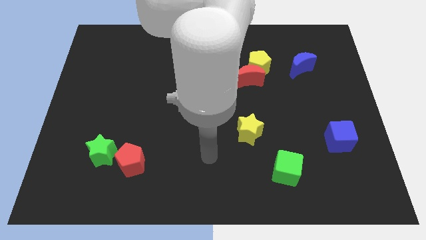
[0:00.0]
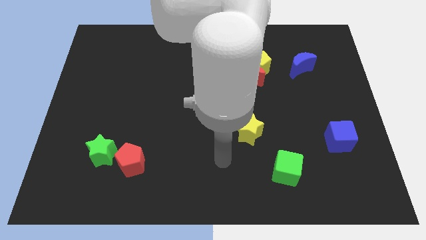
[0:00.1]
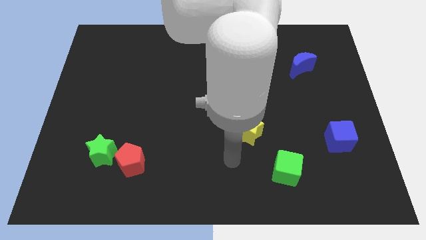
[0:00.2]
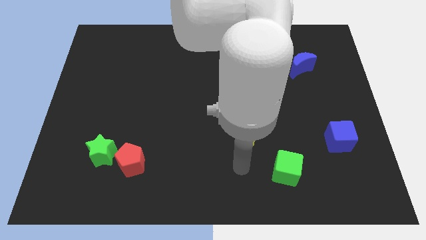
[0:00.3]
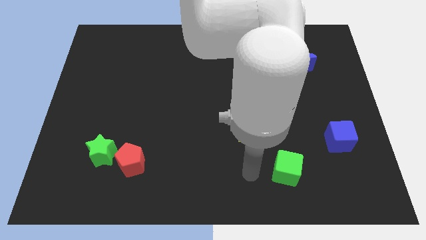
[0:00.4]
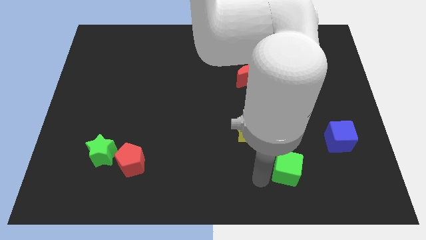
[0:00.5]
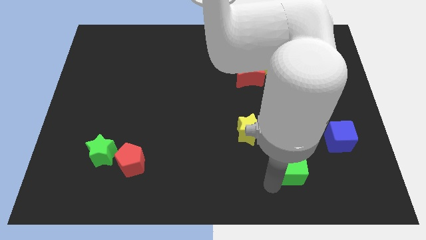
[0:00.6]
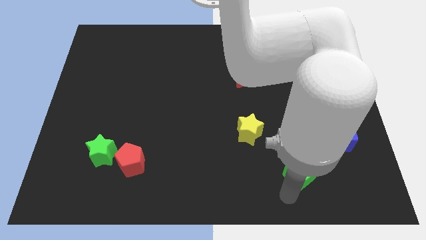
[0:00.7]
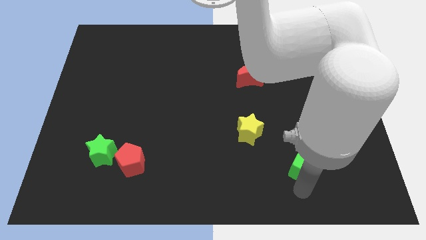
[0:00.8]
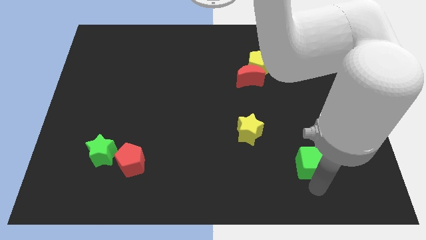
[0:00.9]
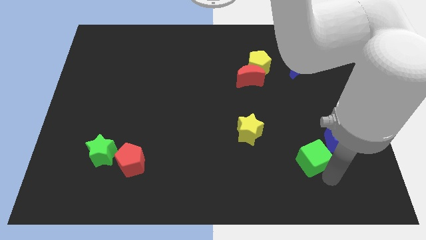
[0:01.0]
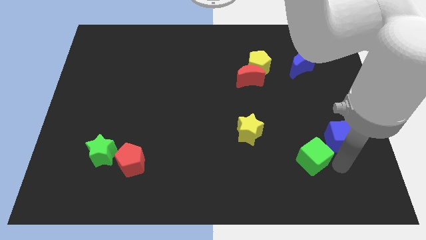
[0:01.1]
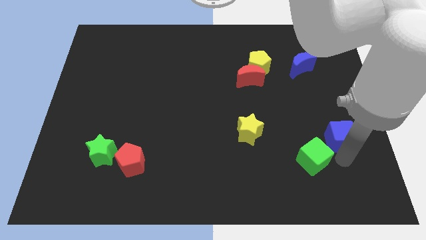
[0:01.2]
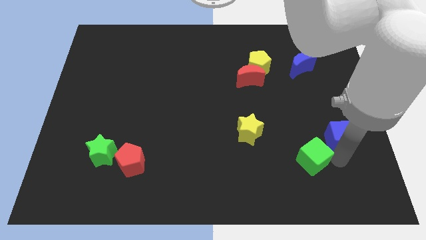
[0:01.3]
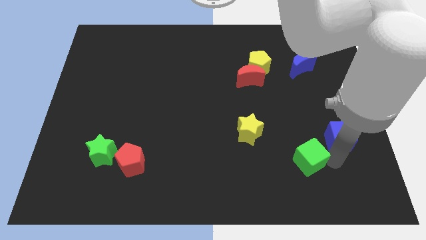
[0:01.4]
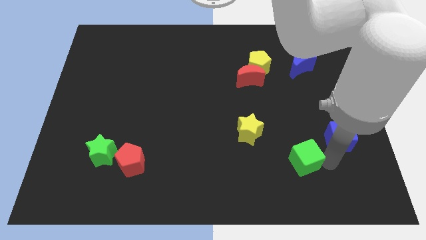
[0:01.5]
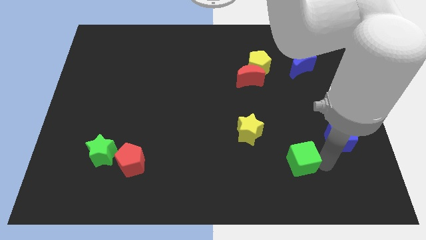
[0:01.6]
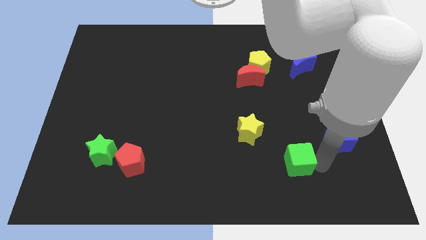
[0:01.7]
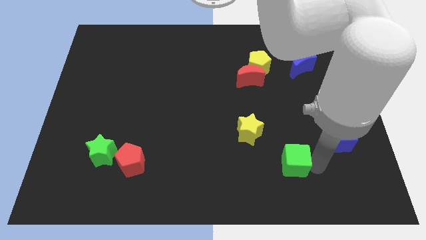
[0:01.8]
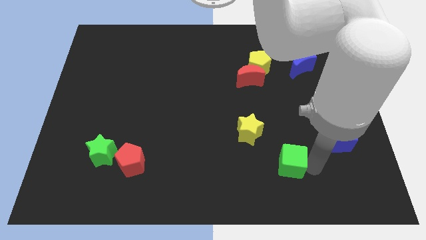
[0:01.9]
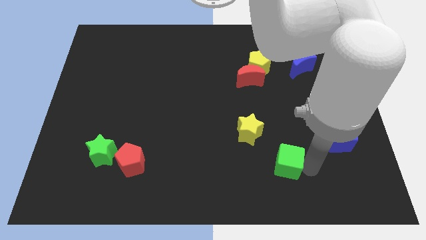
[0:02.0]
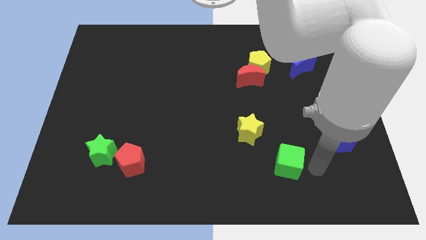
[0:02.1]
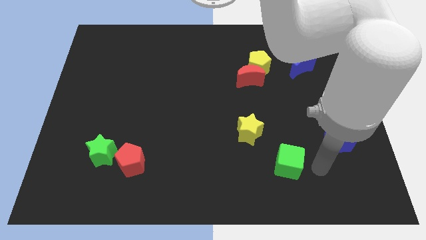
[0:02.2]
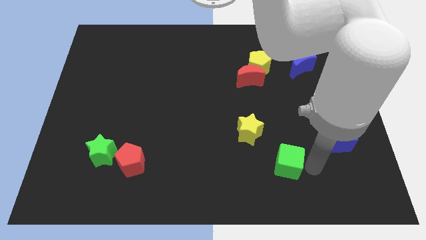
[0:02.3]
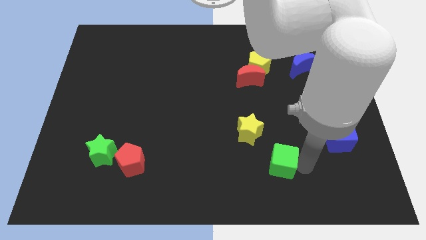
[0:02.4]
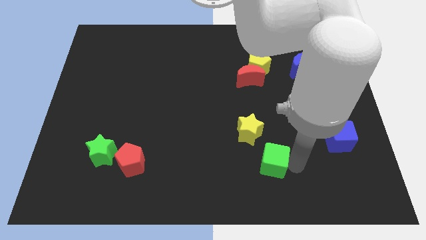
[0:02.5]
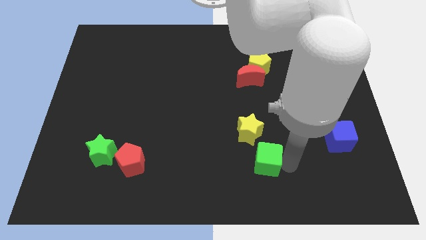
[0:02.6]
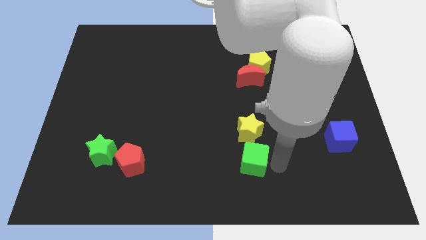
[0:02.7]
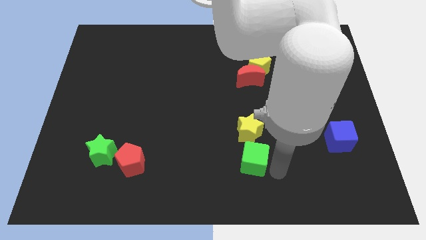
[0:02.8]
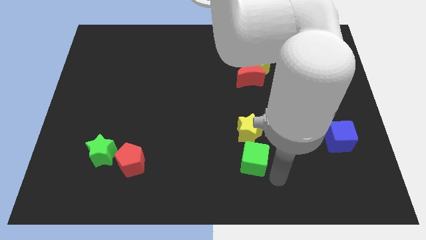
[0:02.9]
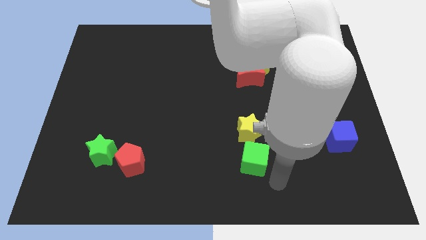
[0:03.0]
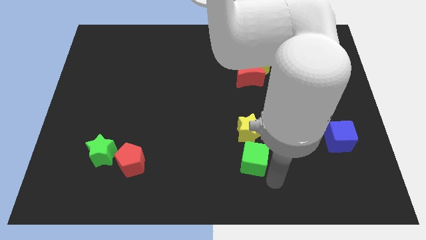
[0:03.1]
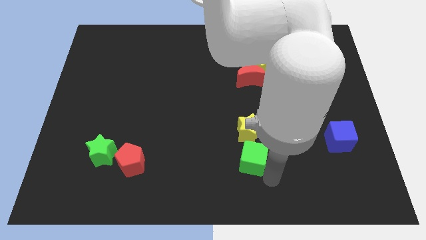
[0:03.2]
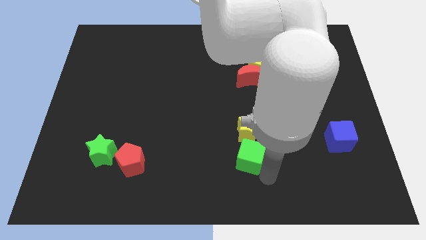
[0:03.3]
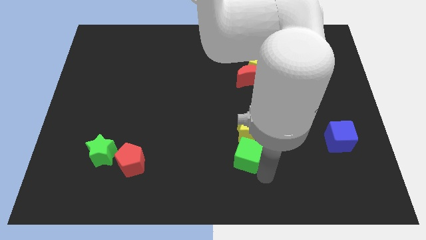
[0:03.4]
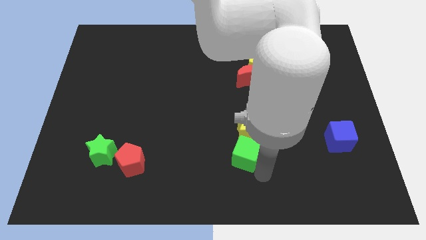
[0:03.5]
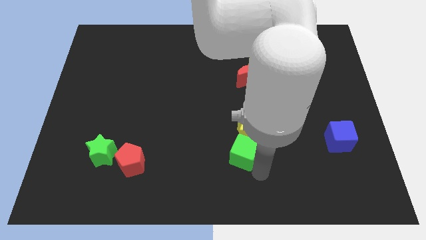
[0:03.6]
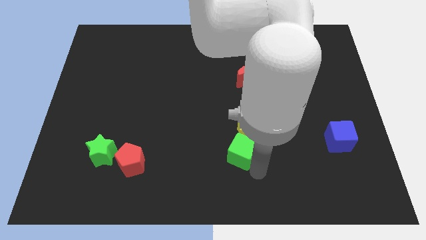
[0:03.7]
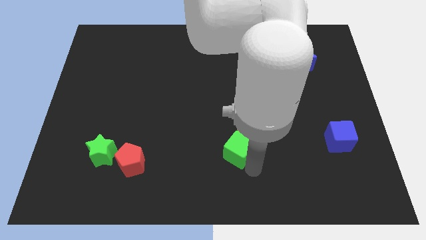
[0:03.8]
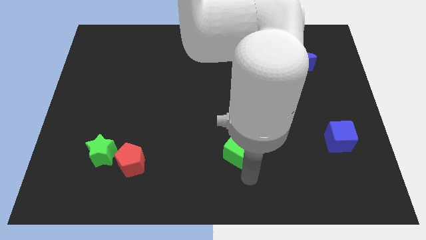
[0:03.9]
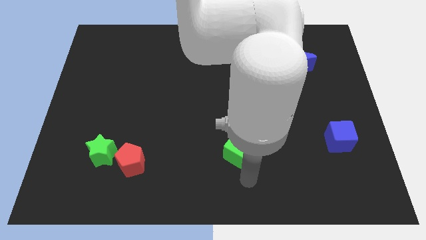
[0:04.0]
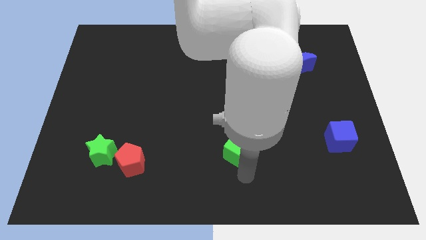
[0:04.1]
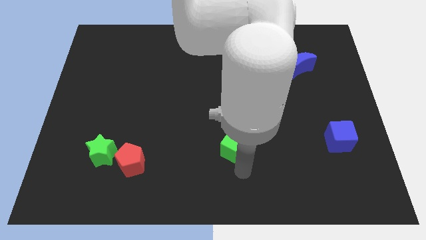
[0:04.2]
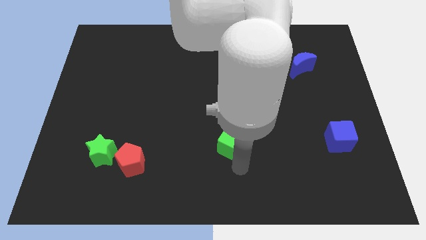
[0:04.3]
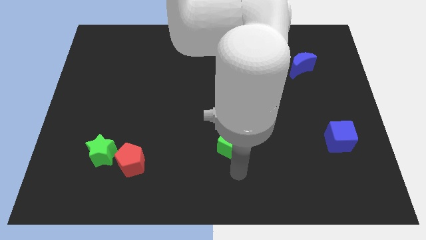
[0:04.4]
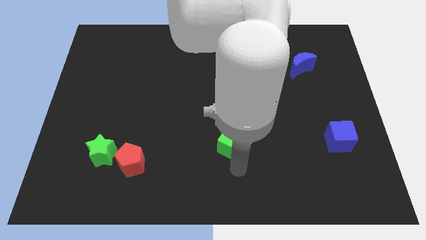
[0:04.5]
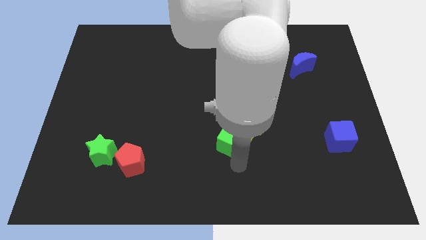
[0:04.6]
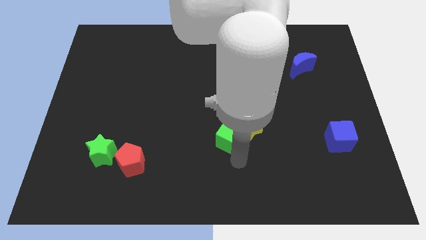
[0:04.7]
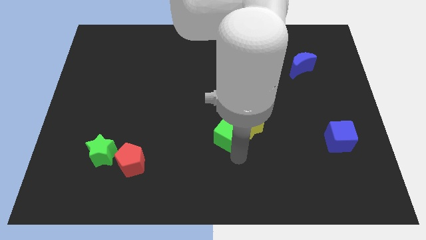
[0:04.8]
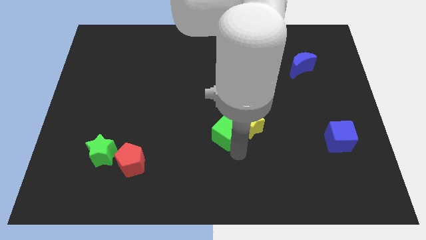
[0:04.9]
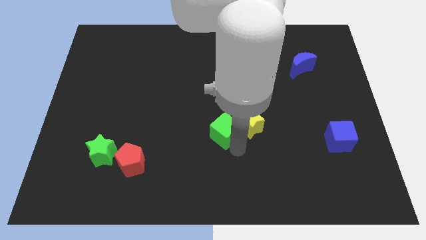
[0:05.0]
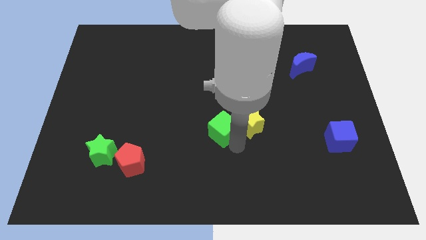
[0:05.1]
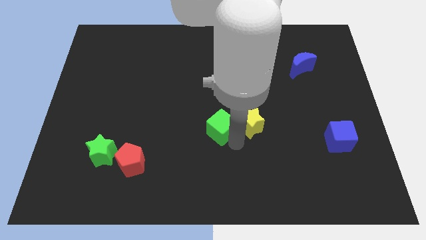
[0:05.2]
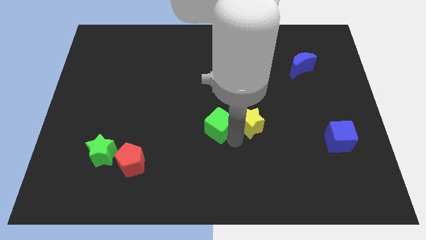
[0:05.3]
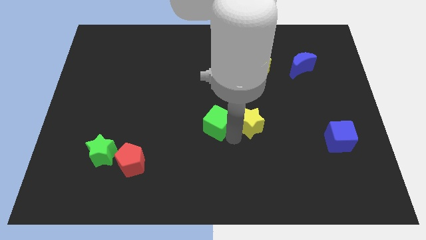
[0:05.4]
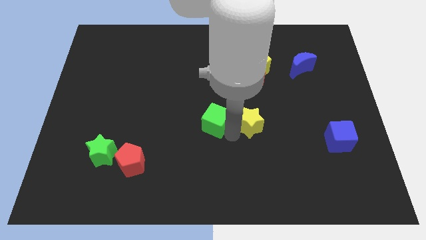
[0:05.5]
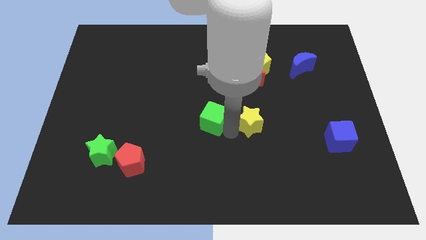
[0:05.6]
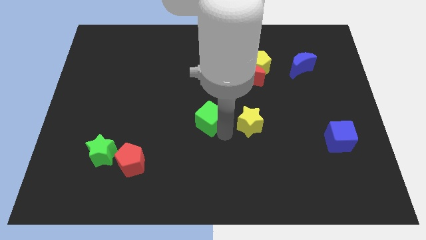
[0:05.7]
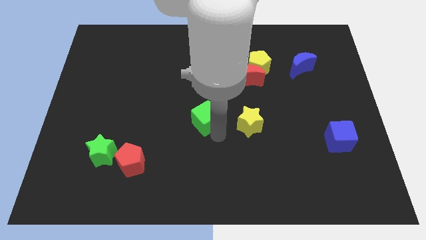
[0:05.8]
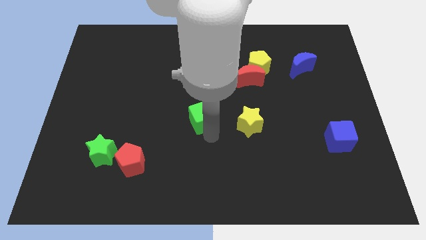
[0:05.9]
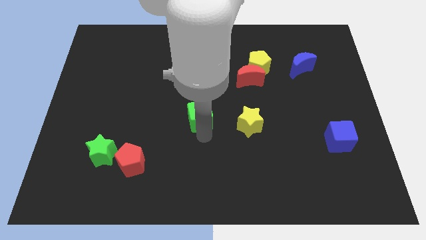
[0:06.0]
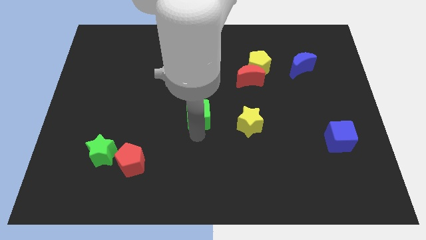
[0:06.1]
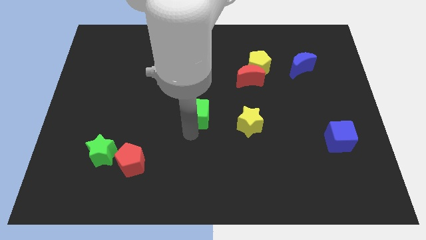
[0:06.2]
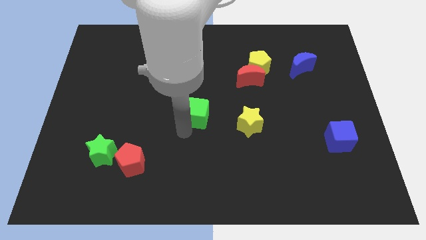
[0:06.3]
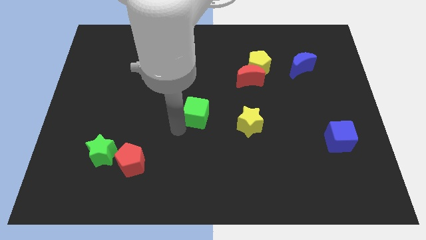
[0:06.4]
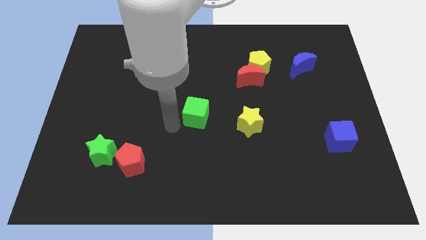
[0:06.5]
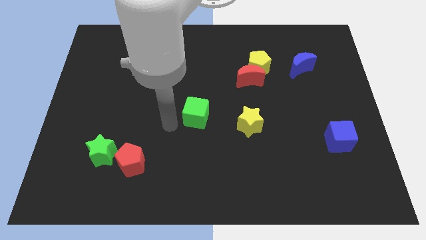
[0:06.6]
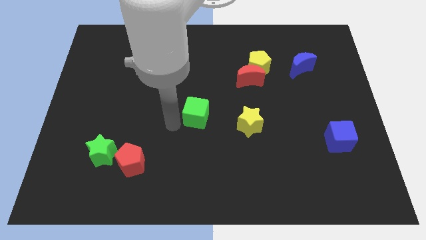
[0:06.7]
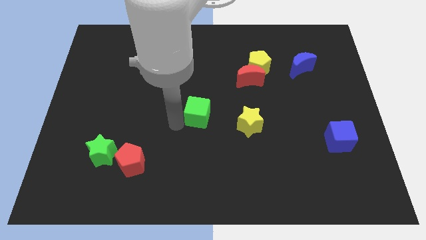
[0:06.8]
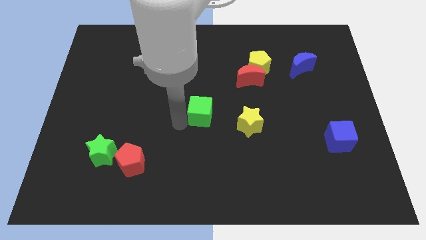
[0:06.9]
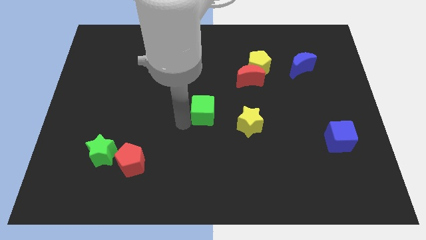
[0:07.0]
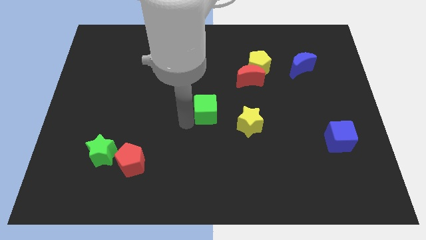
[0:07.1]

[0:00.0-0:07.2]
put the green cube to the top left of the yellow star
